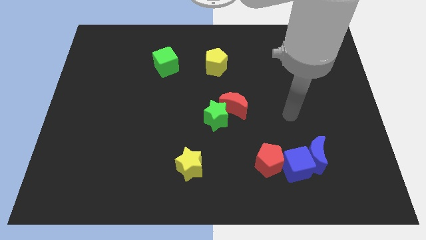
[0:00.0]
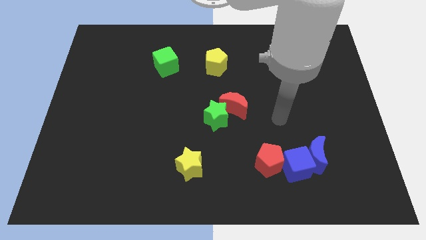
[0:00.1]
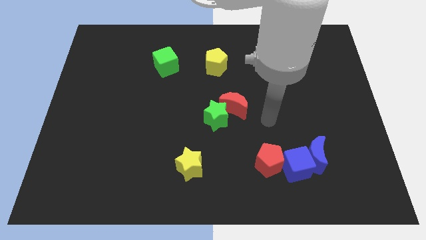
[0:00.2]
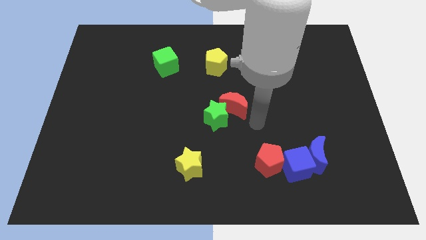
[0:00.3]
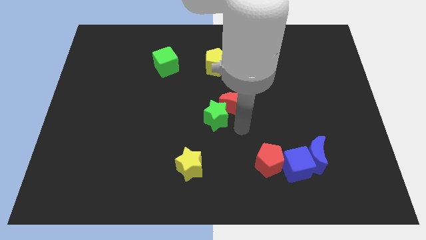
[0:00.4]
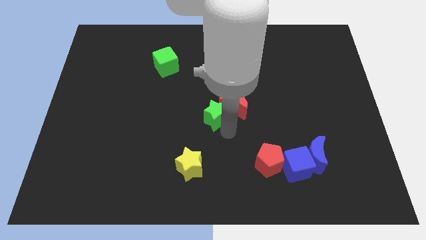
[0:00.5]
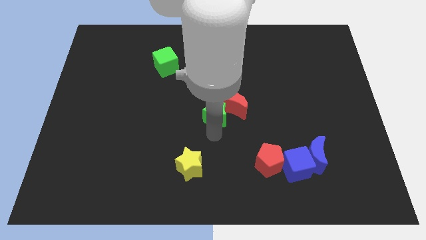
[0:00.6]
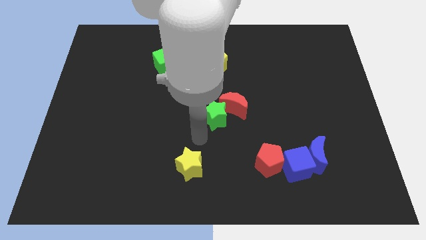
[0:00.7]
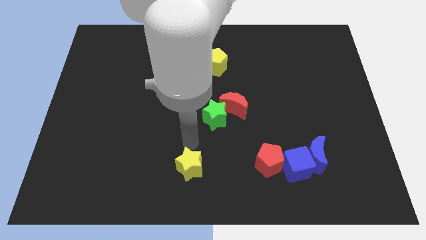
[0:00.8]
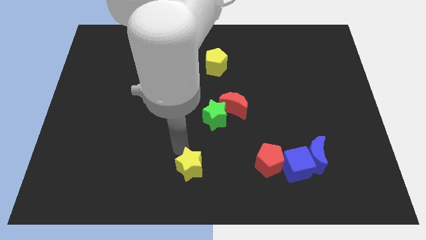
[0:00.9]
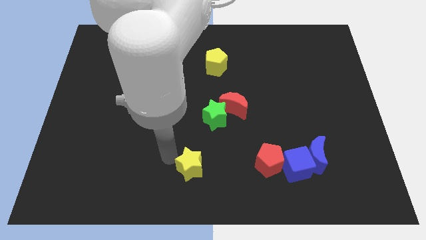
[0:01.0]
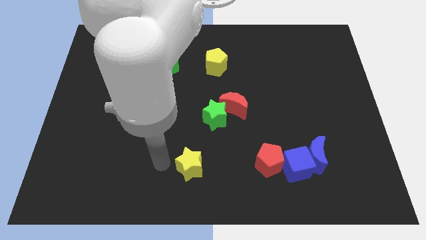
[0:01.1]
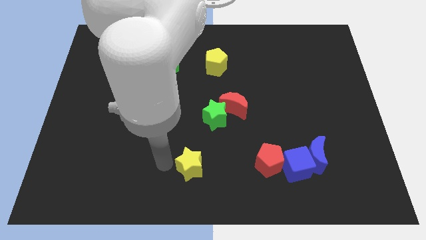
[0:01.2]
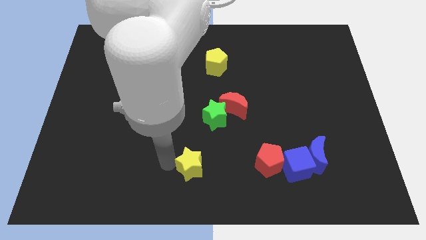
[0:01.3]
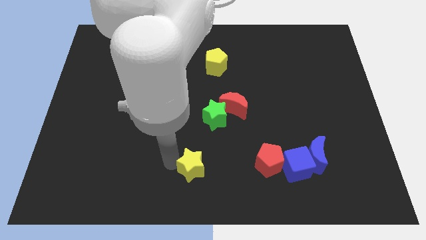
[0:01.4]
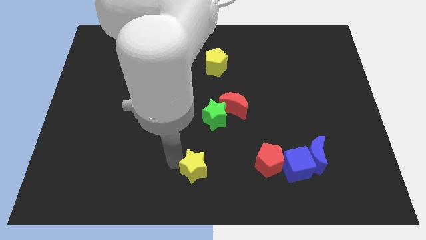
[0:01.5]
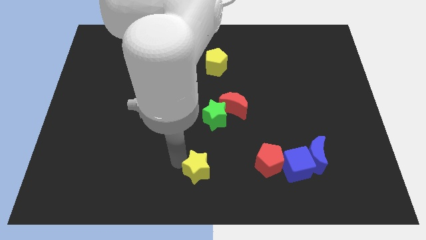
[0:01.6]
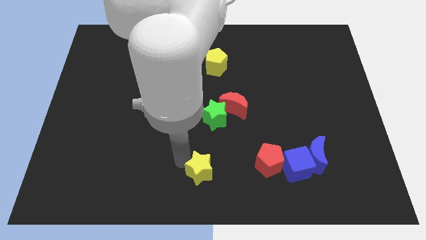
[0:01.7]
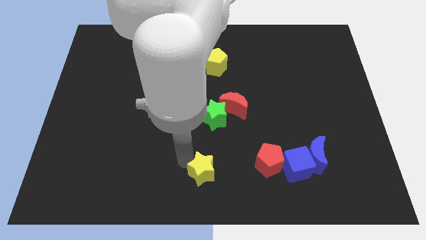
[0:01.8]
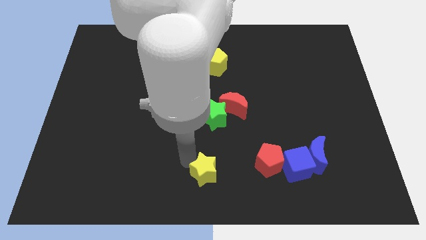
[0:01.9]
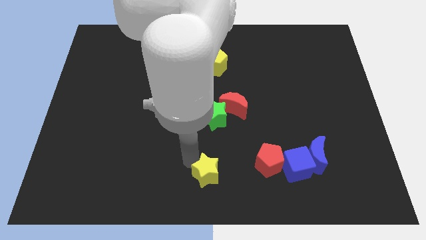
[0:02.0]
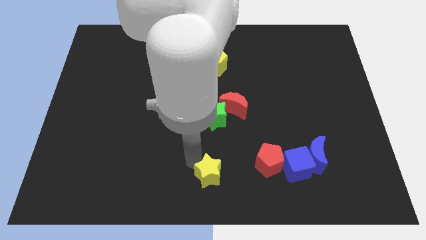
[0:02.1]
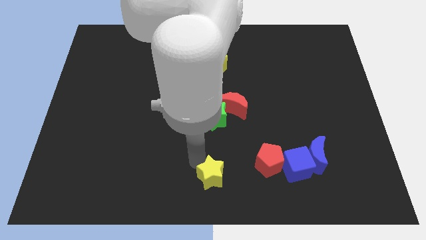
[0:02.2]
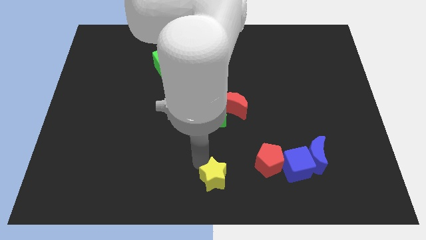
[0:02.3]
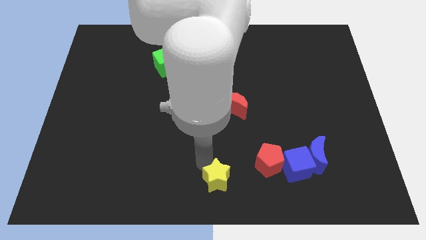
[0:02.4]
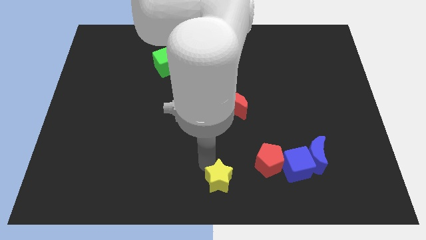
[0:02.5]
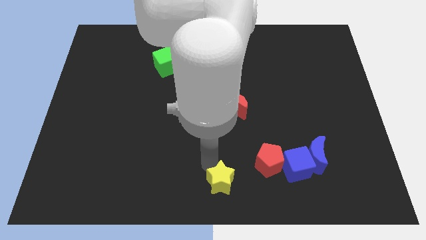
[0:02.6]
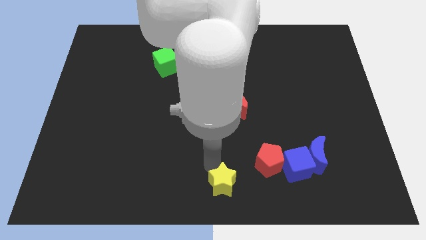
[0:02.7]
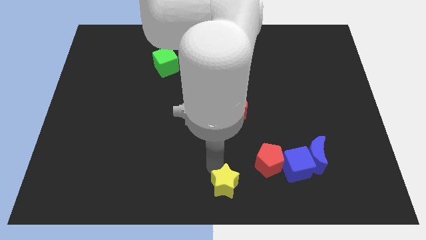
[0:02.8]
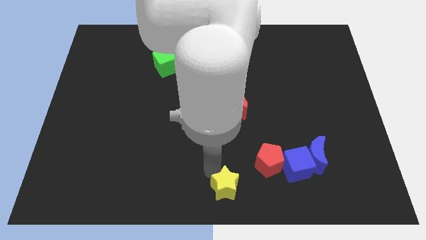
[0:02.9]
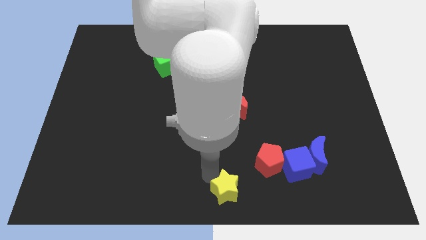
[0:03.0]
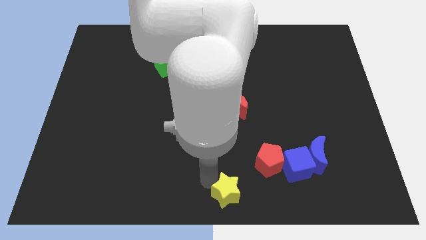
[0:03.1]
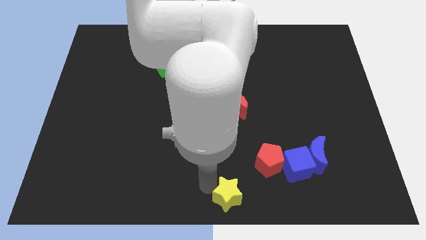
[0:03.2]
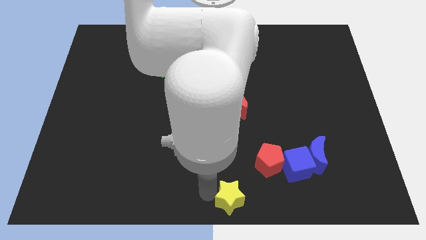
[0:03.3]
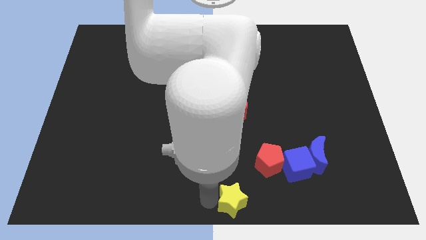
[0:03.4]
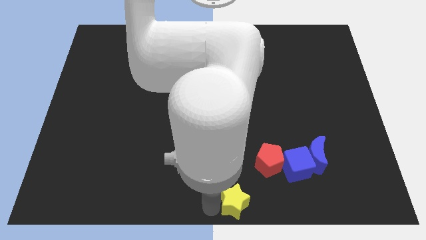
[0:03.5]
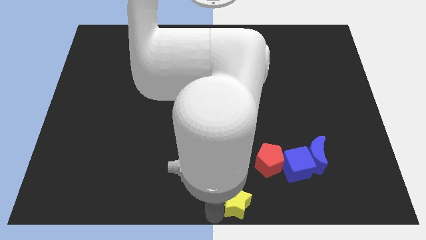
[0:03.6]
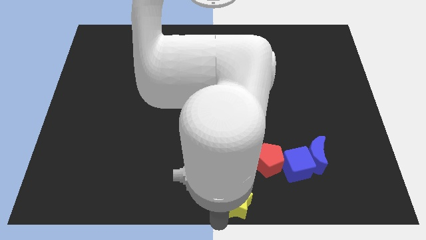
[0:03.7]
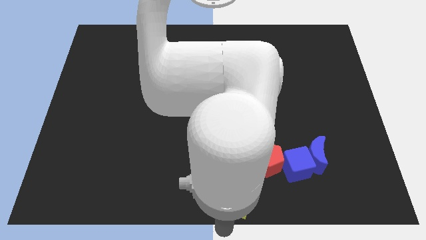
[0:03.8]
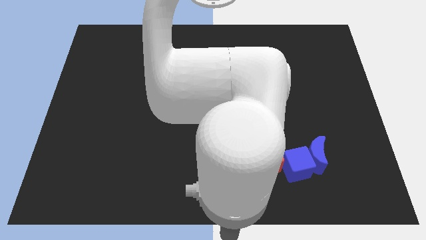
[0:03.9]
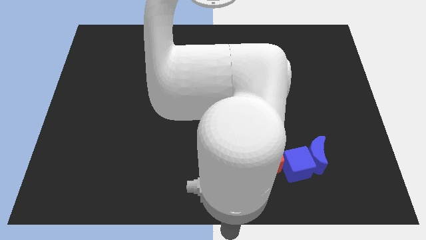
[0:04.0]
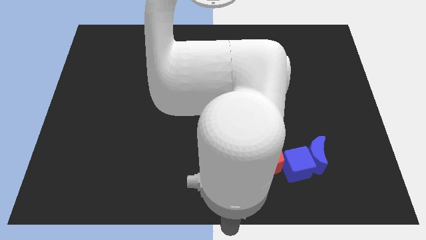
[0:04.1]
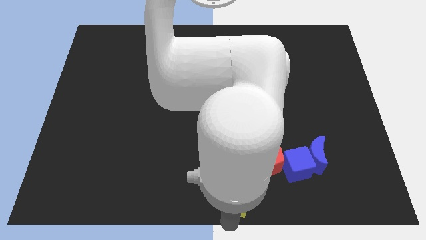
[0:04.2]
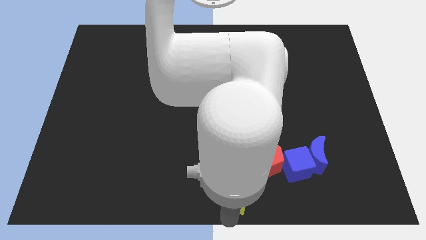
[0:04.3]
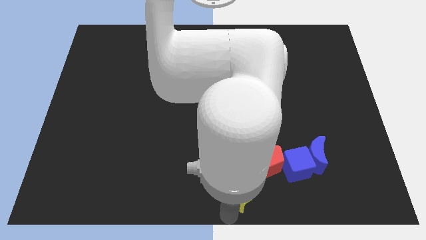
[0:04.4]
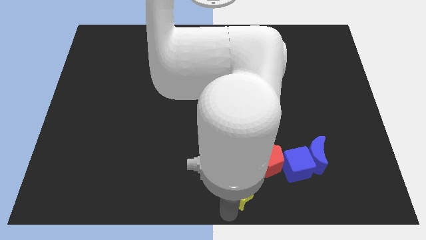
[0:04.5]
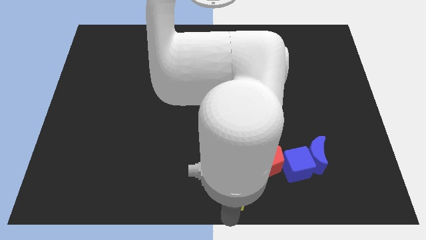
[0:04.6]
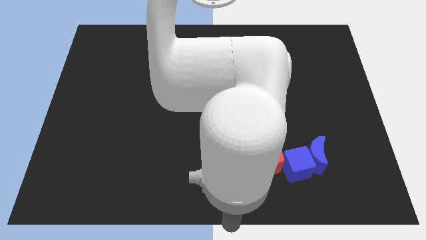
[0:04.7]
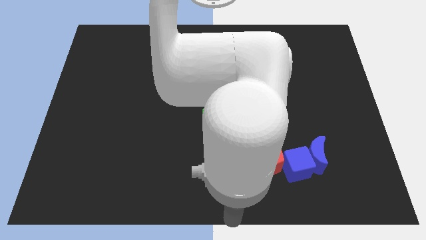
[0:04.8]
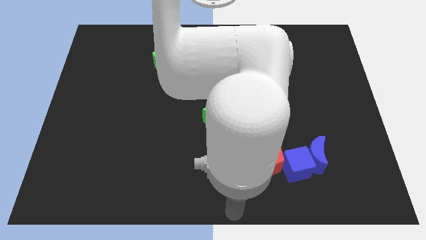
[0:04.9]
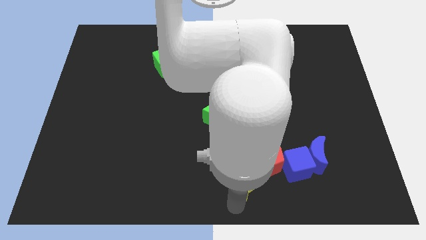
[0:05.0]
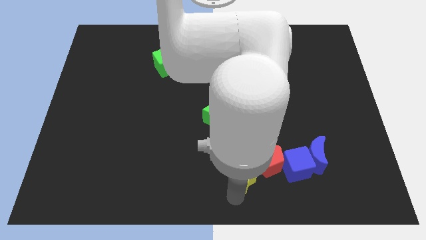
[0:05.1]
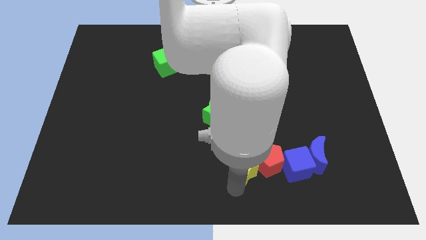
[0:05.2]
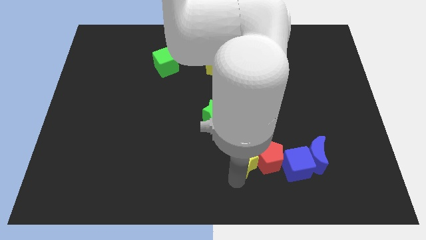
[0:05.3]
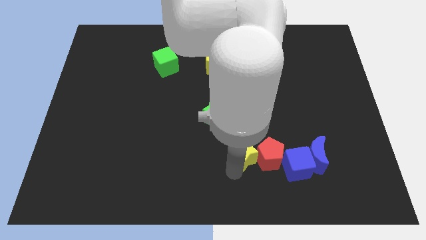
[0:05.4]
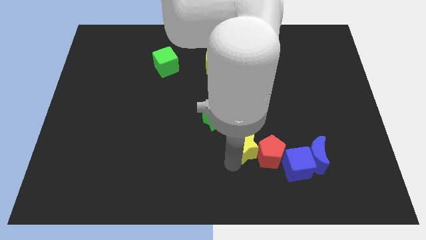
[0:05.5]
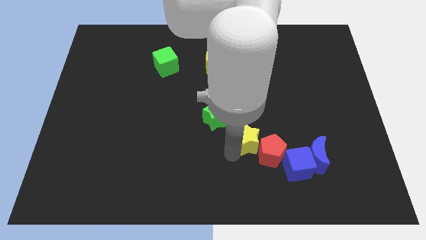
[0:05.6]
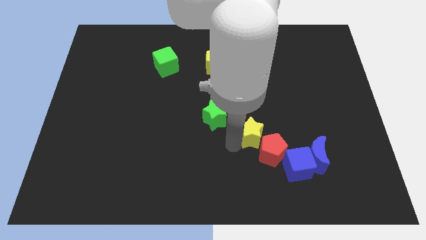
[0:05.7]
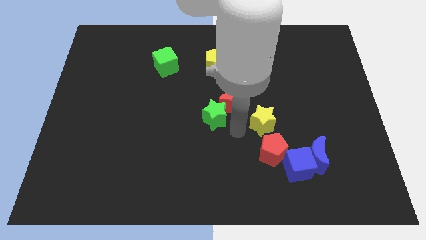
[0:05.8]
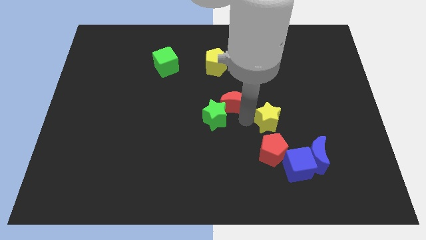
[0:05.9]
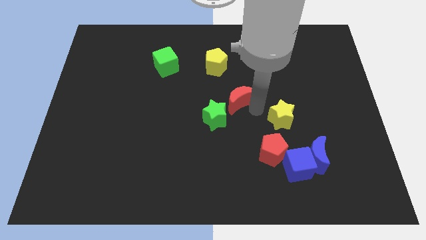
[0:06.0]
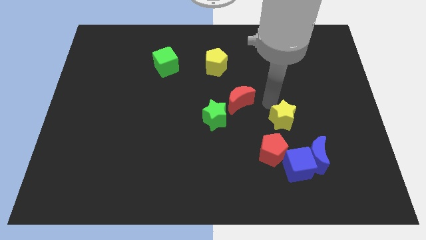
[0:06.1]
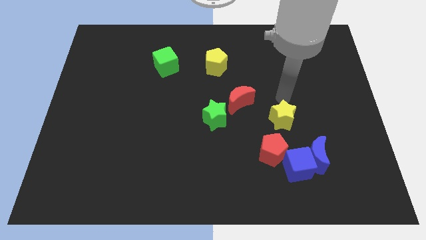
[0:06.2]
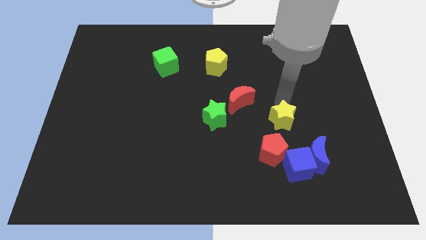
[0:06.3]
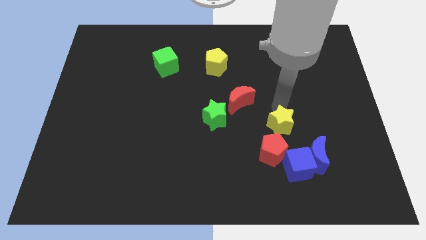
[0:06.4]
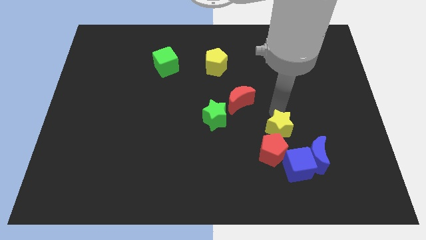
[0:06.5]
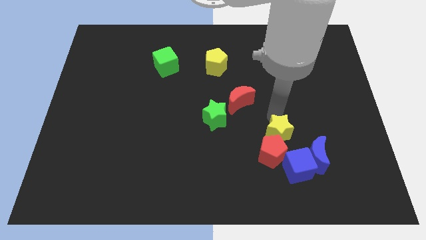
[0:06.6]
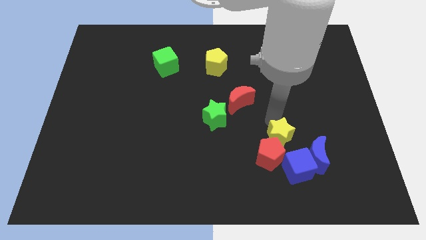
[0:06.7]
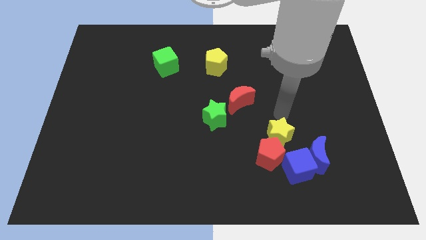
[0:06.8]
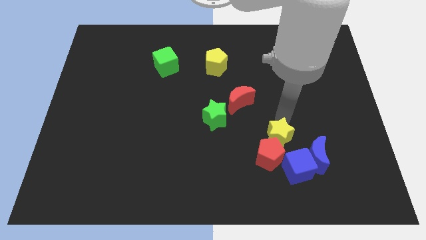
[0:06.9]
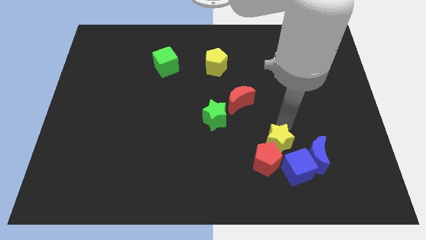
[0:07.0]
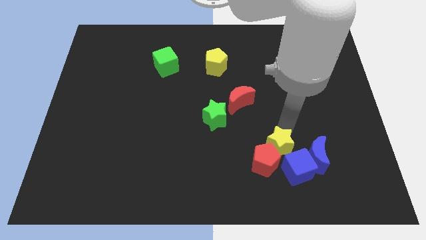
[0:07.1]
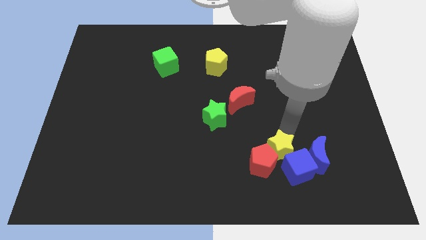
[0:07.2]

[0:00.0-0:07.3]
slide the yellow star close to the blue cube
